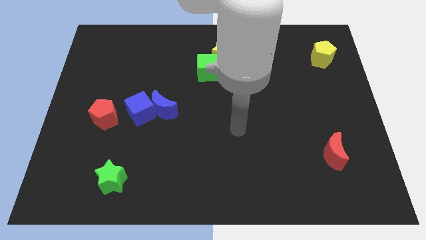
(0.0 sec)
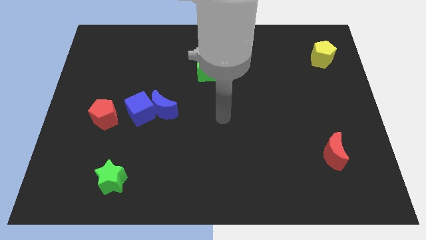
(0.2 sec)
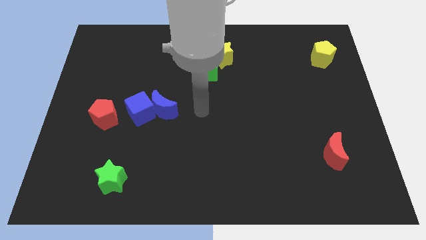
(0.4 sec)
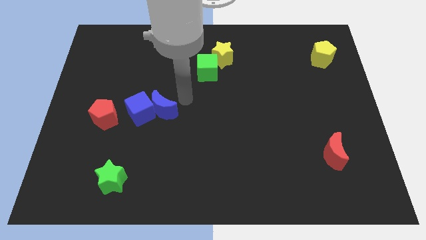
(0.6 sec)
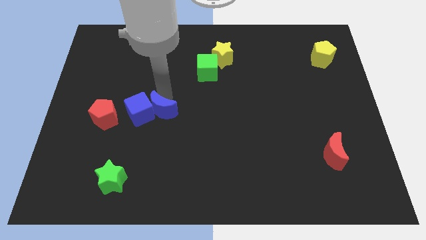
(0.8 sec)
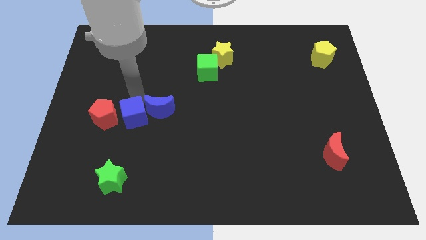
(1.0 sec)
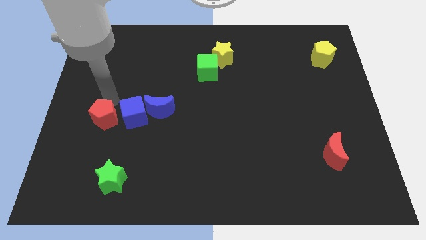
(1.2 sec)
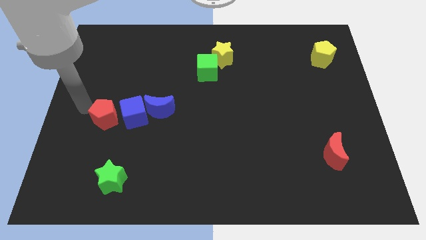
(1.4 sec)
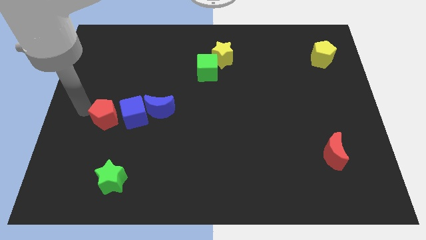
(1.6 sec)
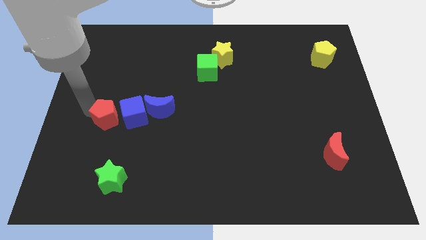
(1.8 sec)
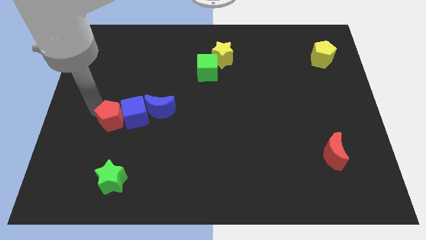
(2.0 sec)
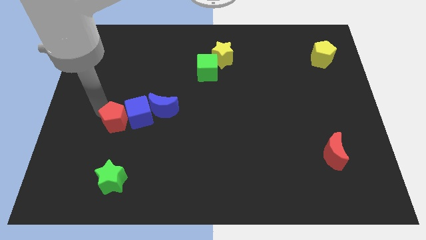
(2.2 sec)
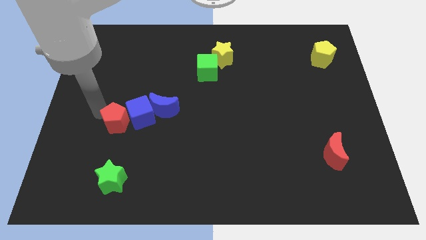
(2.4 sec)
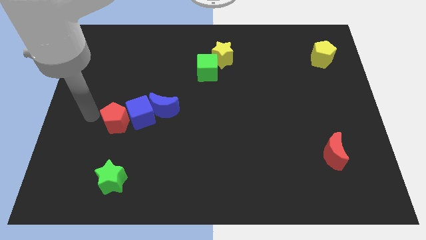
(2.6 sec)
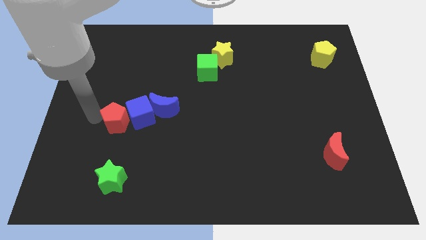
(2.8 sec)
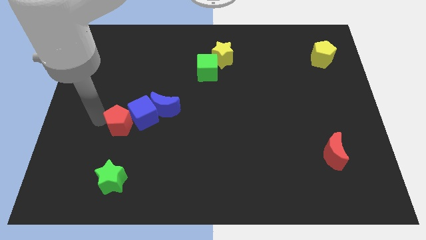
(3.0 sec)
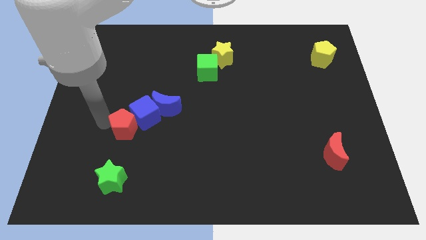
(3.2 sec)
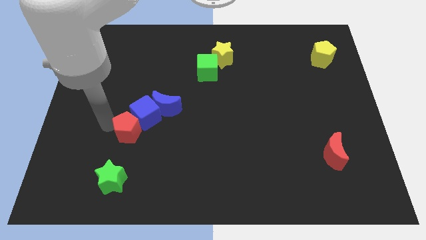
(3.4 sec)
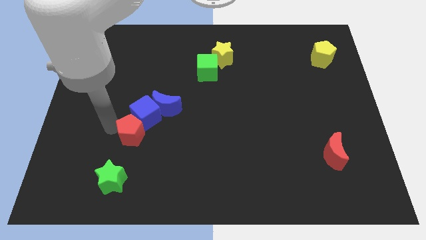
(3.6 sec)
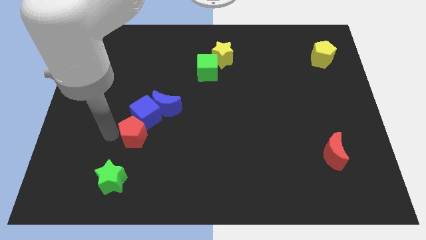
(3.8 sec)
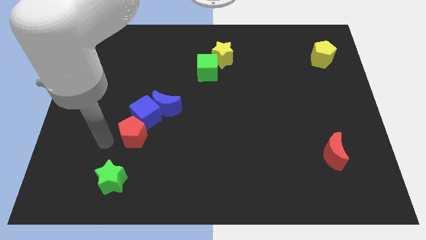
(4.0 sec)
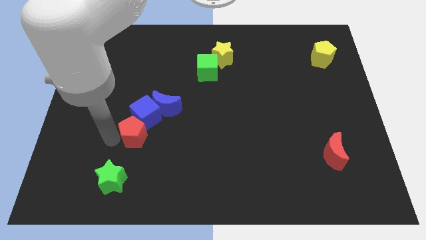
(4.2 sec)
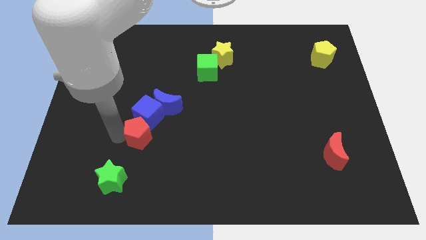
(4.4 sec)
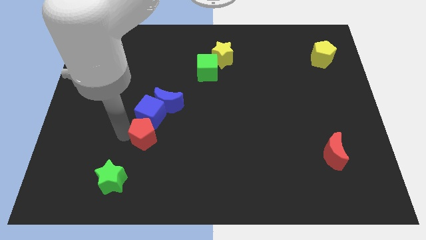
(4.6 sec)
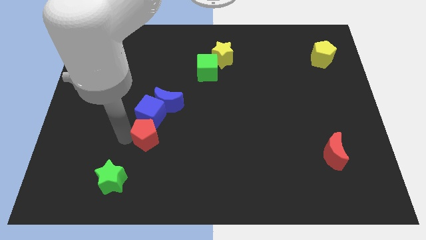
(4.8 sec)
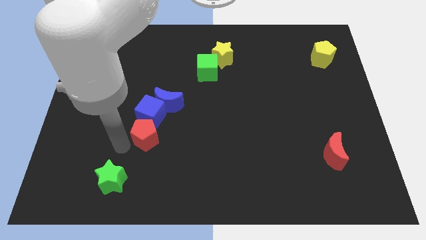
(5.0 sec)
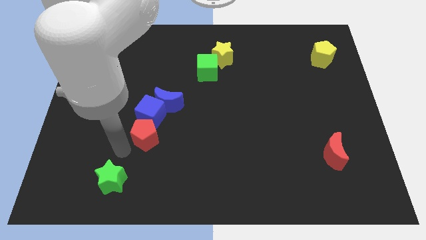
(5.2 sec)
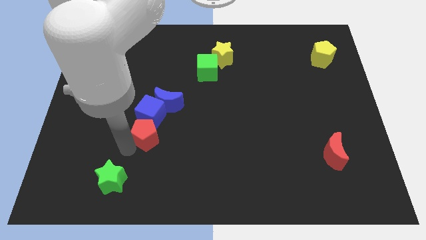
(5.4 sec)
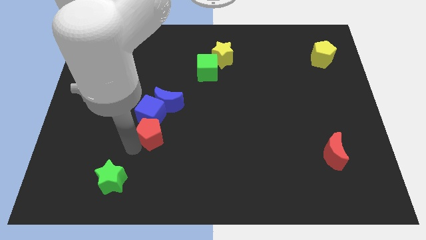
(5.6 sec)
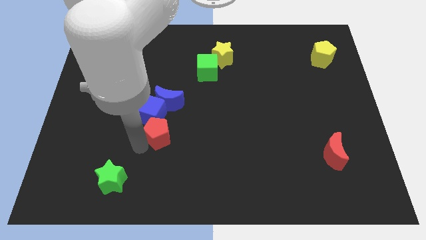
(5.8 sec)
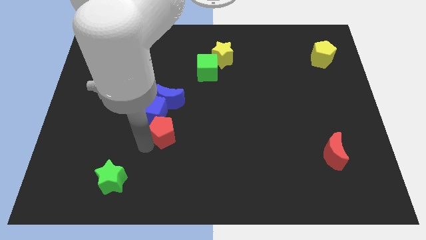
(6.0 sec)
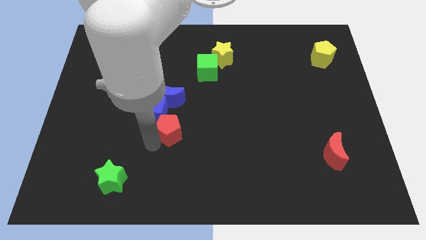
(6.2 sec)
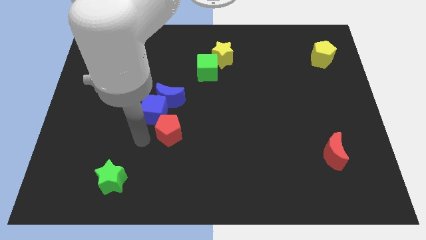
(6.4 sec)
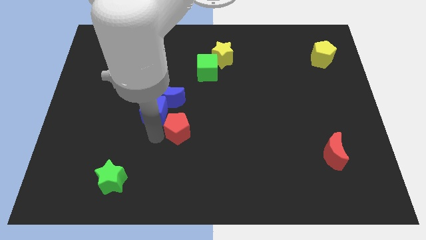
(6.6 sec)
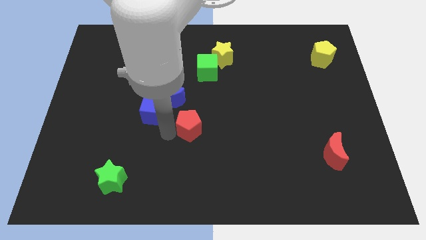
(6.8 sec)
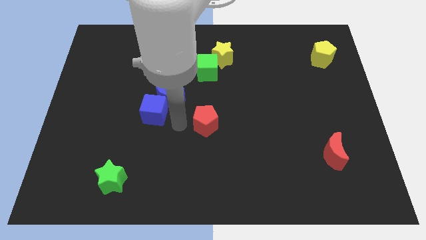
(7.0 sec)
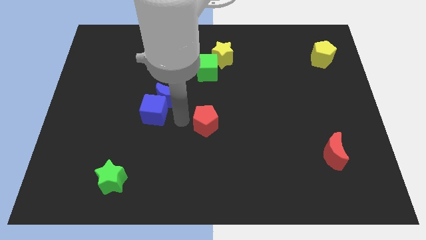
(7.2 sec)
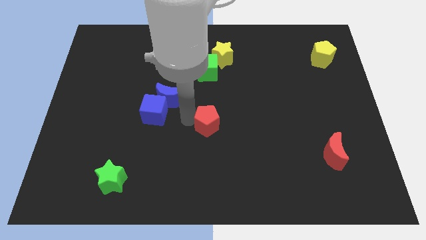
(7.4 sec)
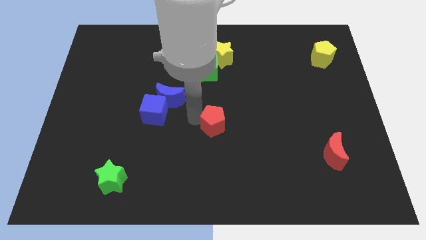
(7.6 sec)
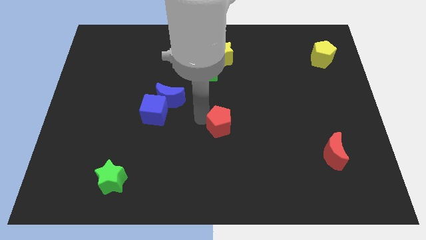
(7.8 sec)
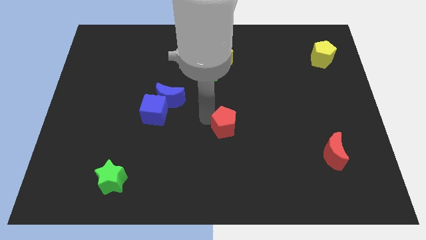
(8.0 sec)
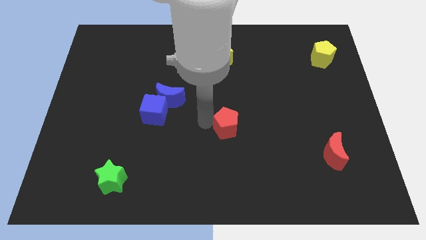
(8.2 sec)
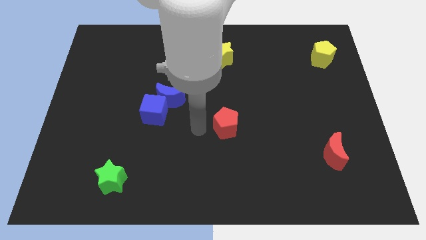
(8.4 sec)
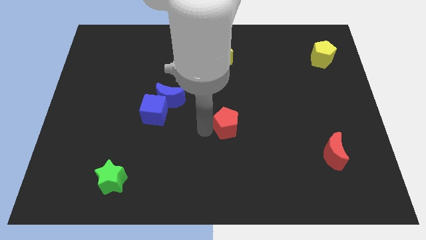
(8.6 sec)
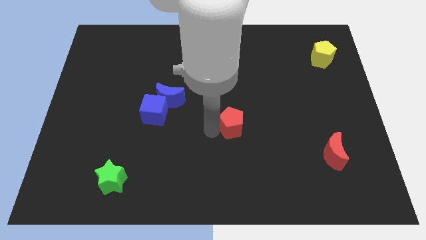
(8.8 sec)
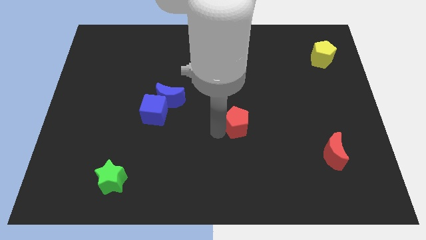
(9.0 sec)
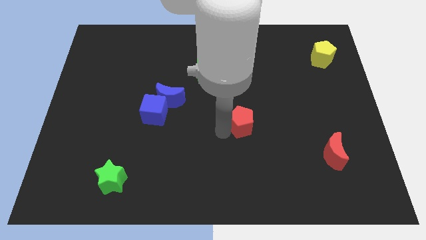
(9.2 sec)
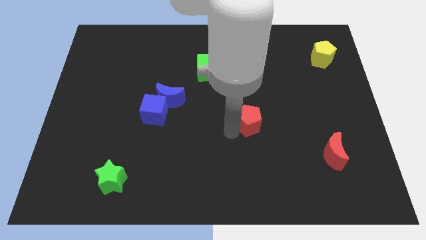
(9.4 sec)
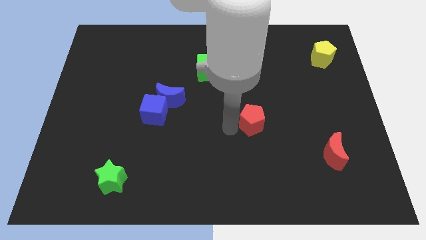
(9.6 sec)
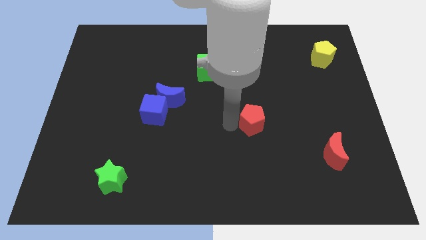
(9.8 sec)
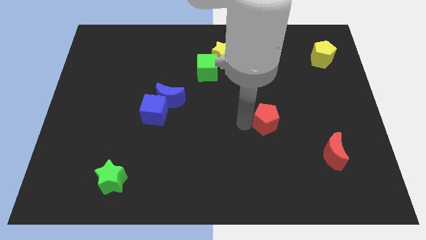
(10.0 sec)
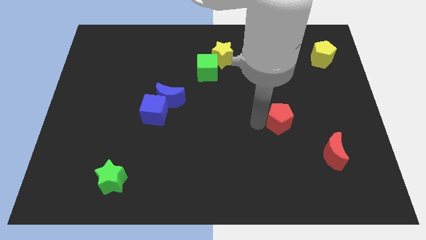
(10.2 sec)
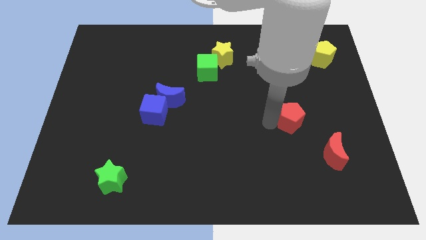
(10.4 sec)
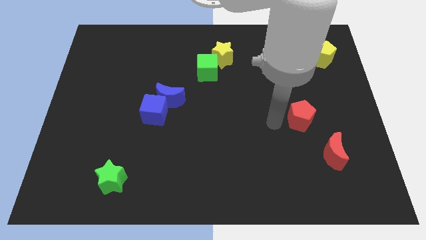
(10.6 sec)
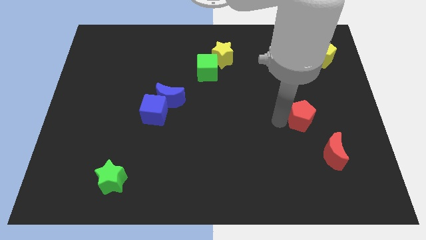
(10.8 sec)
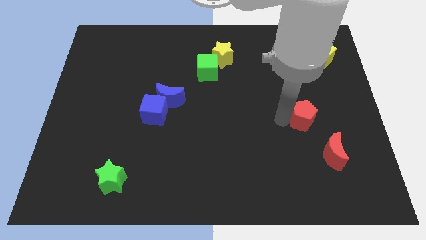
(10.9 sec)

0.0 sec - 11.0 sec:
move the red pentagon to the top side of the red moon

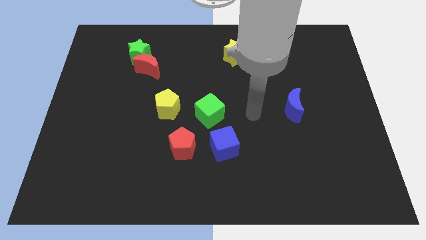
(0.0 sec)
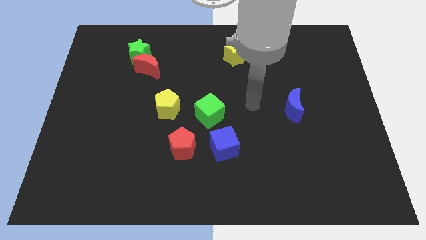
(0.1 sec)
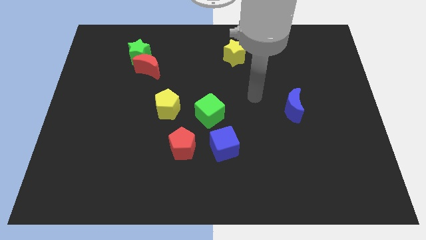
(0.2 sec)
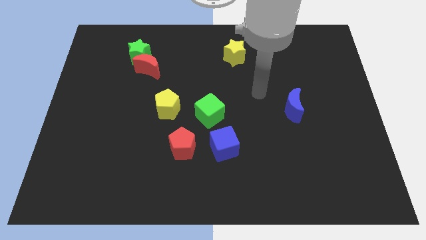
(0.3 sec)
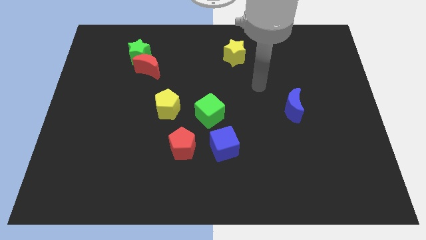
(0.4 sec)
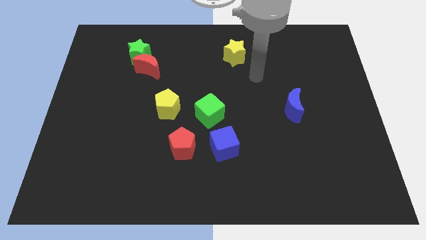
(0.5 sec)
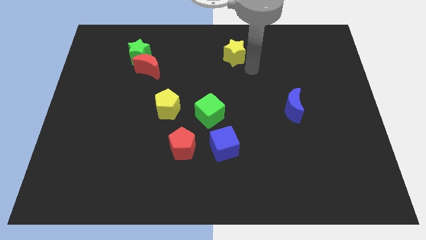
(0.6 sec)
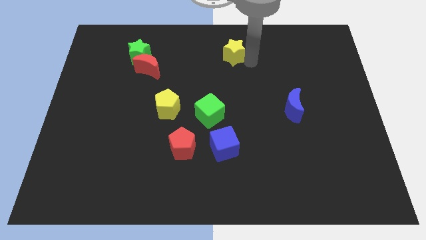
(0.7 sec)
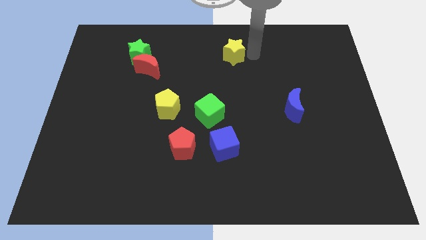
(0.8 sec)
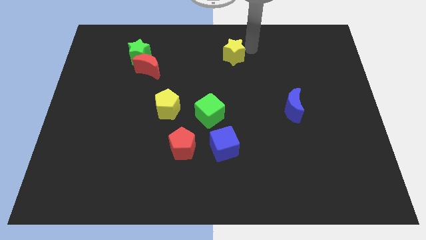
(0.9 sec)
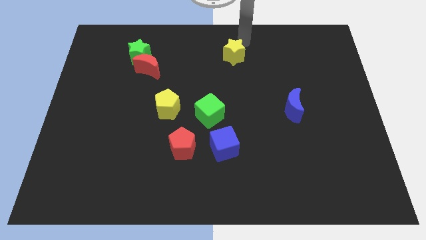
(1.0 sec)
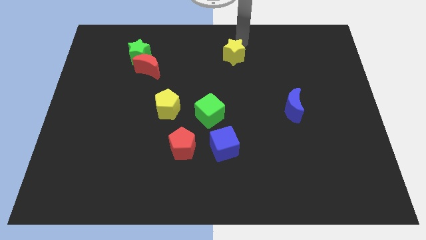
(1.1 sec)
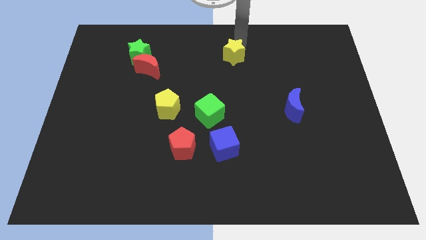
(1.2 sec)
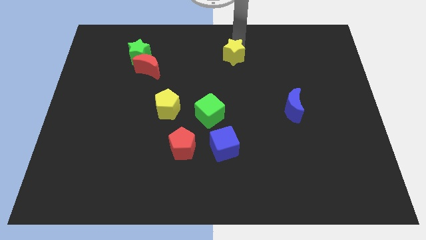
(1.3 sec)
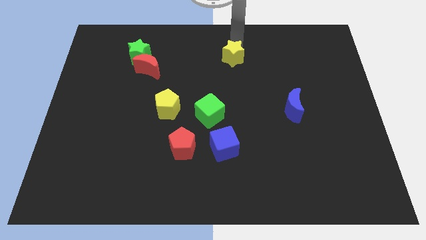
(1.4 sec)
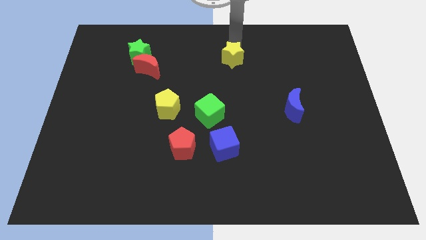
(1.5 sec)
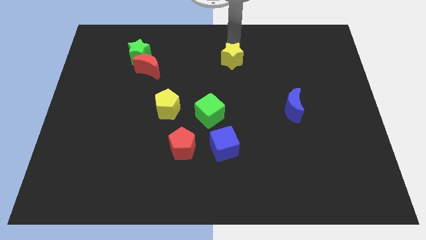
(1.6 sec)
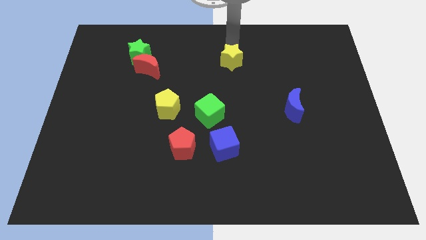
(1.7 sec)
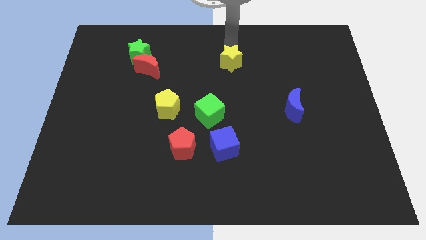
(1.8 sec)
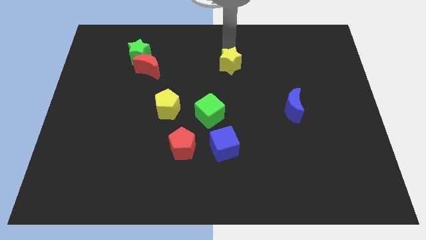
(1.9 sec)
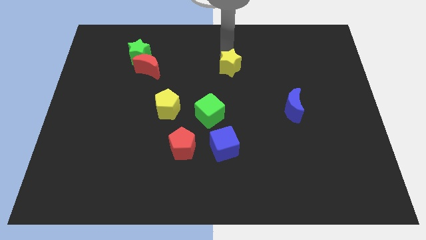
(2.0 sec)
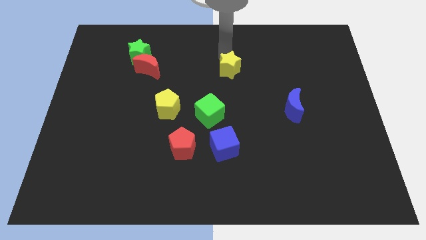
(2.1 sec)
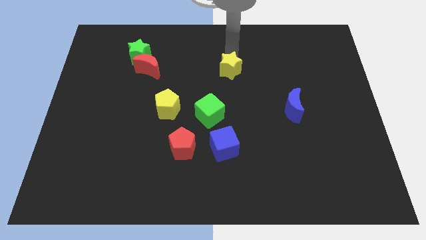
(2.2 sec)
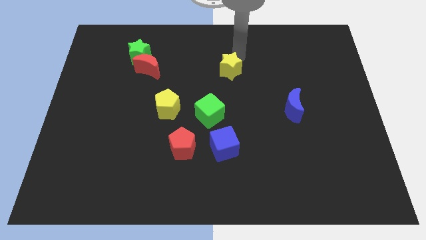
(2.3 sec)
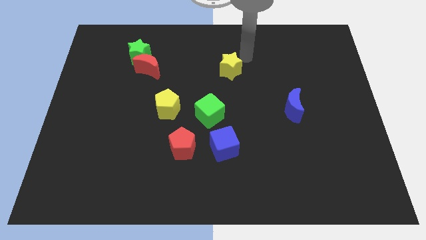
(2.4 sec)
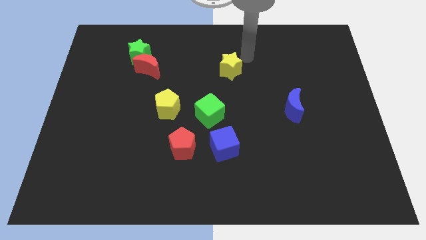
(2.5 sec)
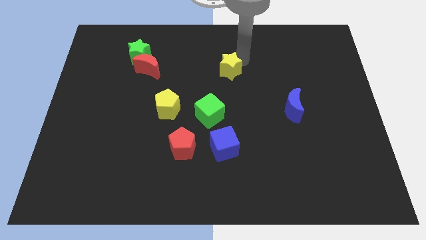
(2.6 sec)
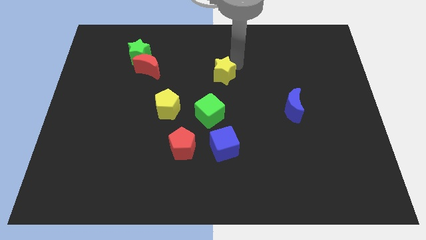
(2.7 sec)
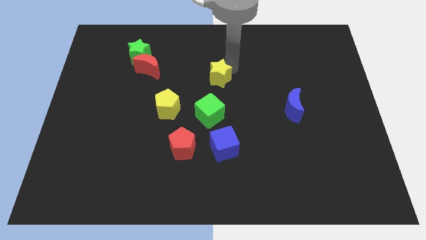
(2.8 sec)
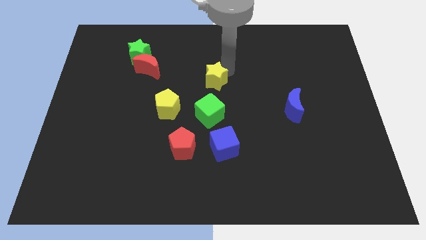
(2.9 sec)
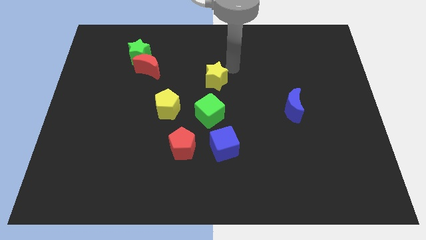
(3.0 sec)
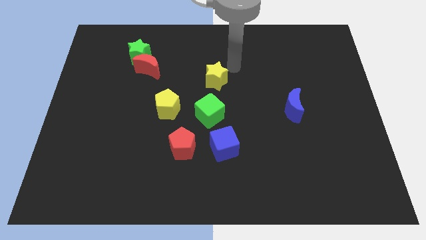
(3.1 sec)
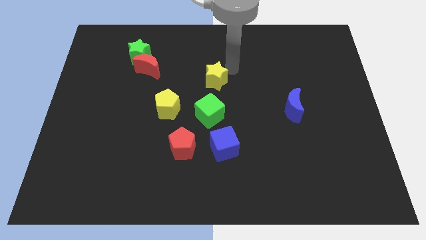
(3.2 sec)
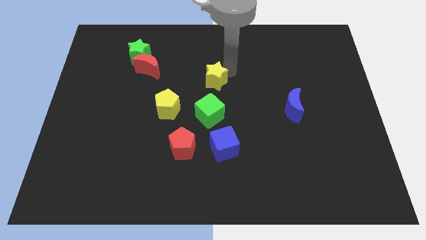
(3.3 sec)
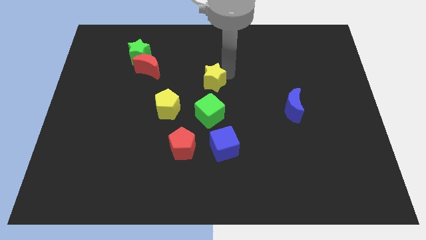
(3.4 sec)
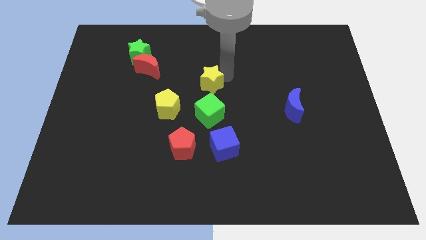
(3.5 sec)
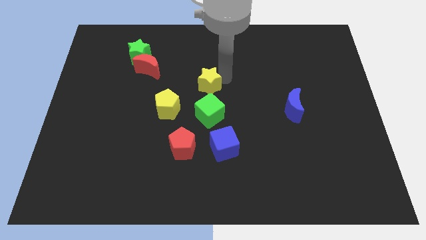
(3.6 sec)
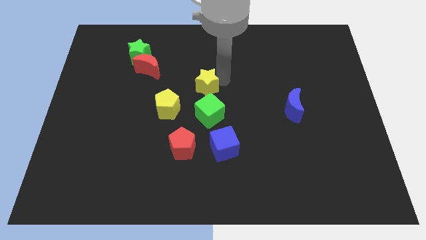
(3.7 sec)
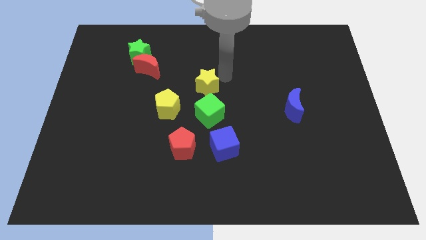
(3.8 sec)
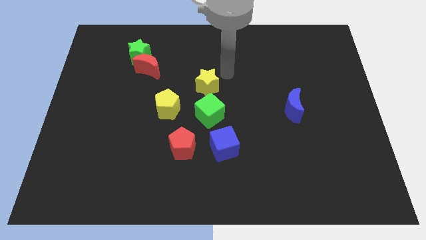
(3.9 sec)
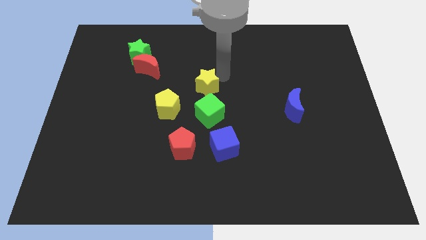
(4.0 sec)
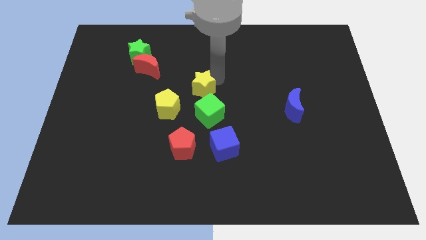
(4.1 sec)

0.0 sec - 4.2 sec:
push the yellow star to the top left of the green cube
